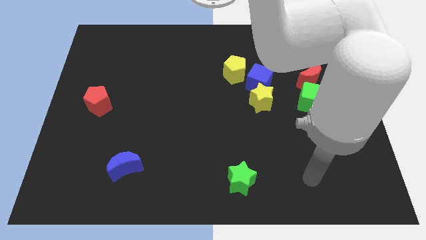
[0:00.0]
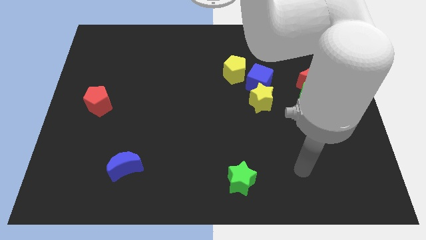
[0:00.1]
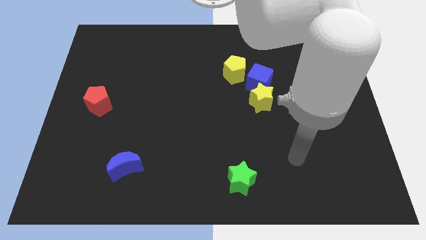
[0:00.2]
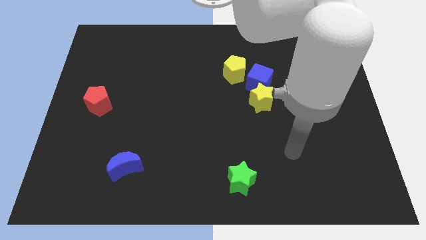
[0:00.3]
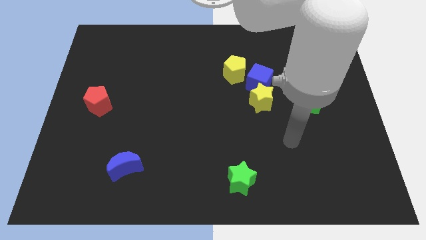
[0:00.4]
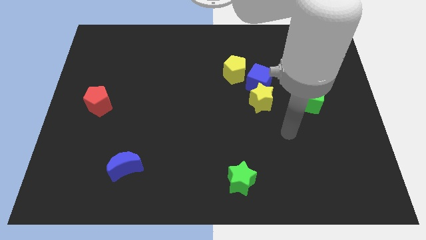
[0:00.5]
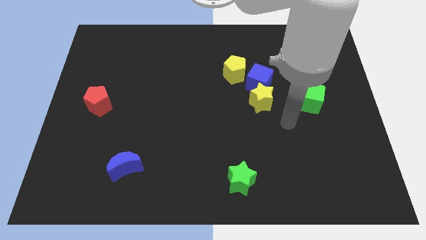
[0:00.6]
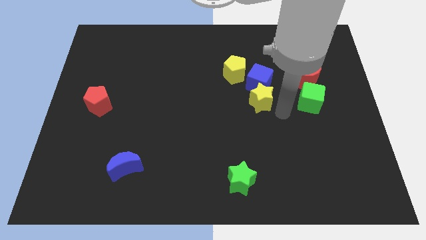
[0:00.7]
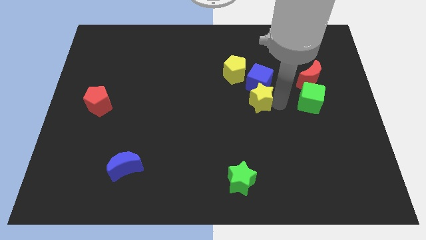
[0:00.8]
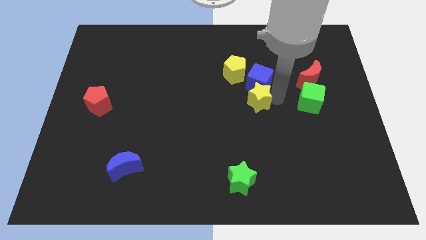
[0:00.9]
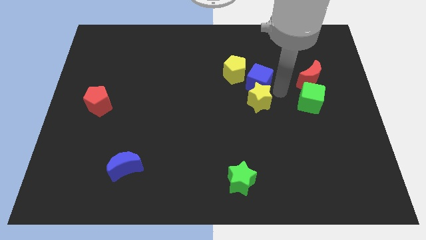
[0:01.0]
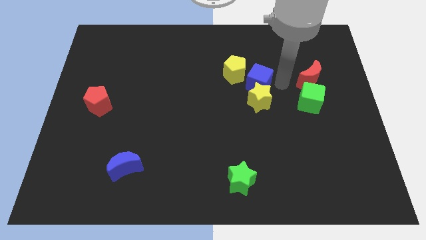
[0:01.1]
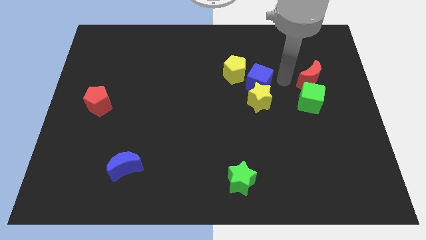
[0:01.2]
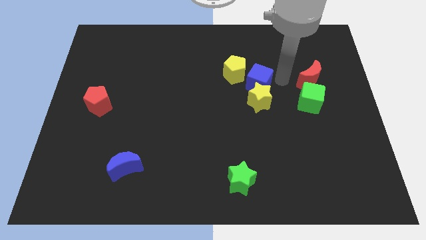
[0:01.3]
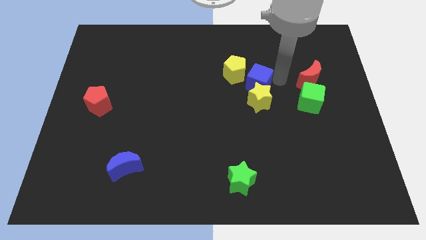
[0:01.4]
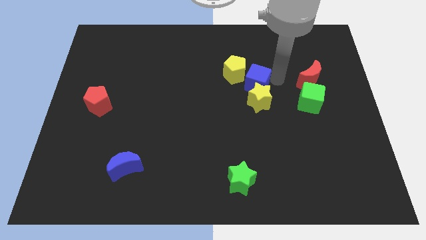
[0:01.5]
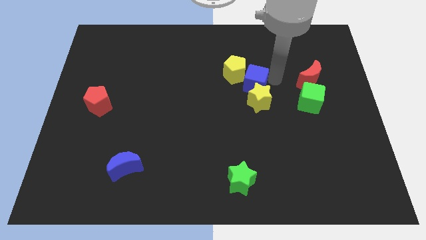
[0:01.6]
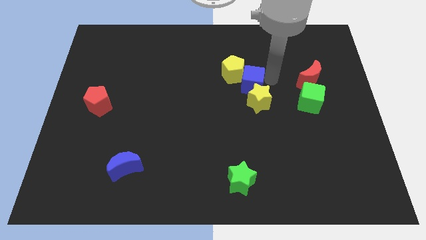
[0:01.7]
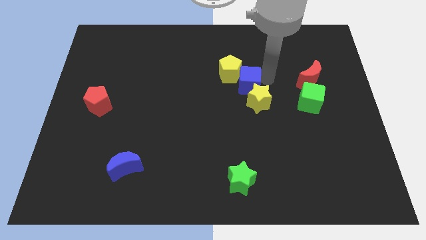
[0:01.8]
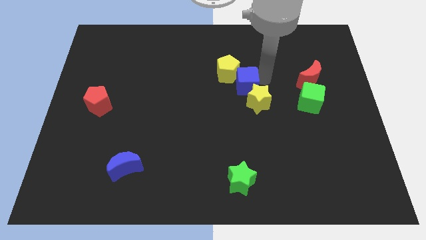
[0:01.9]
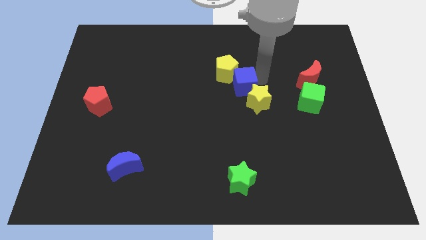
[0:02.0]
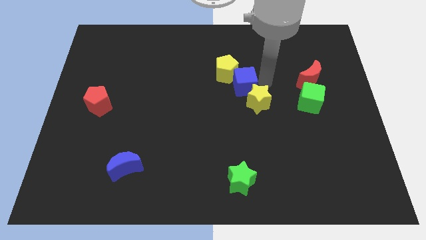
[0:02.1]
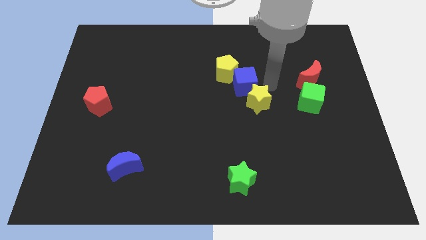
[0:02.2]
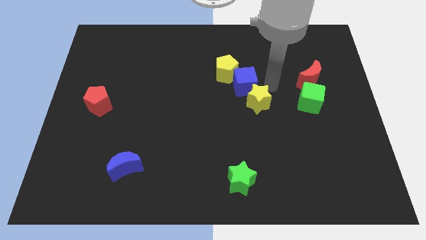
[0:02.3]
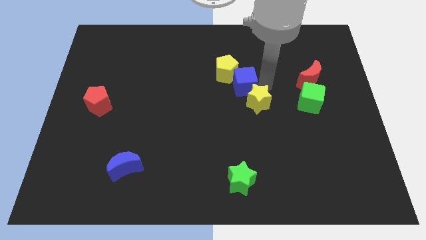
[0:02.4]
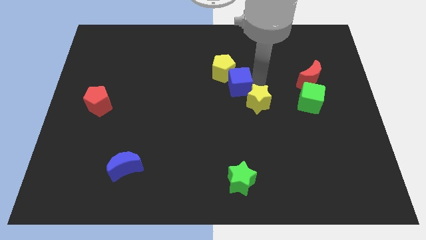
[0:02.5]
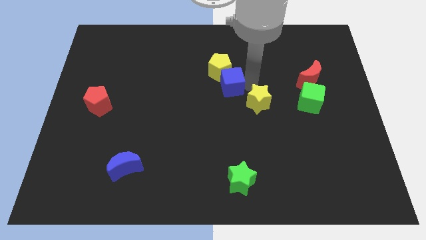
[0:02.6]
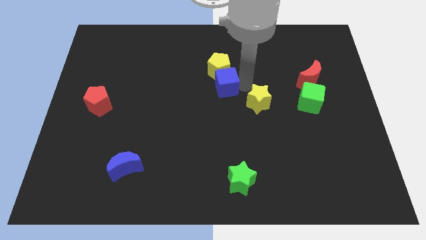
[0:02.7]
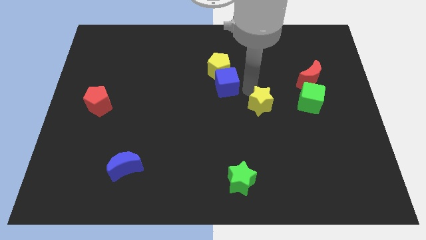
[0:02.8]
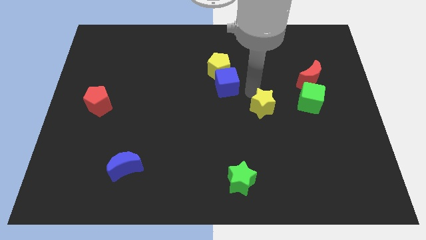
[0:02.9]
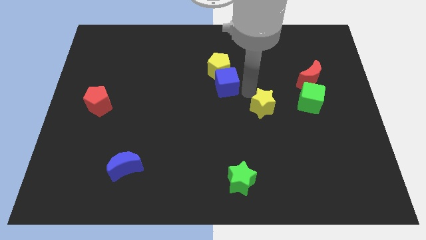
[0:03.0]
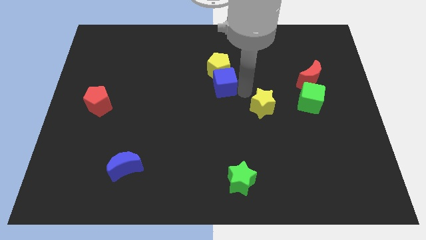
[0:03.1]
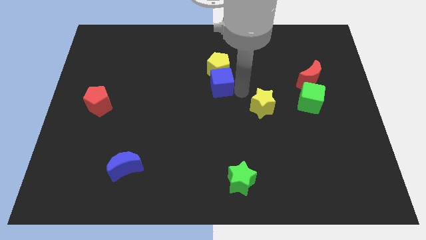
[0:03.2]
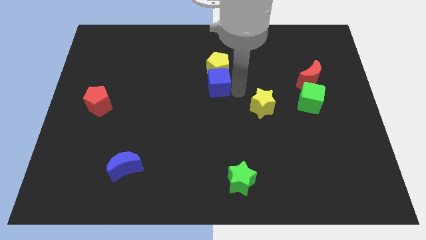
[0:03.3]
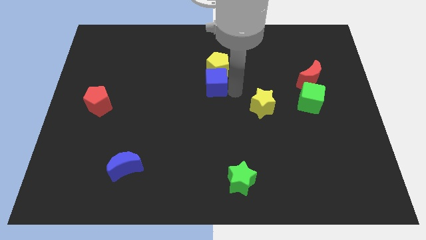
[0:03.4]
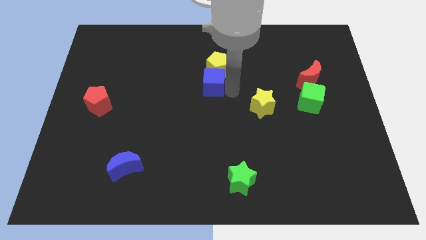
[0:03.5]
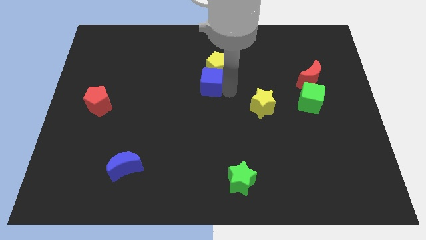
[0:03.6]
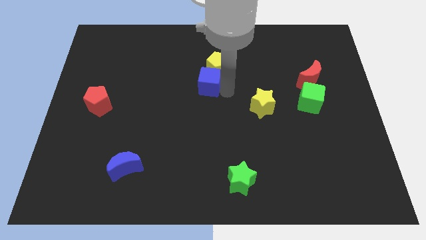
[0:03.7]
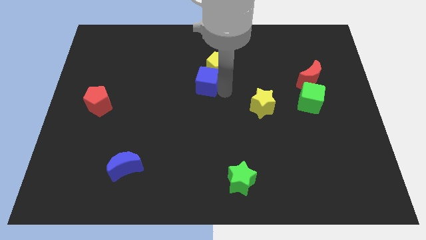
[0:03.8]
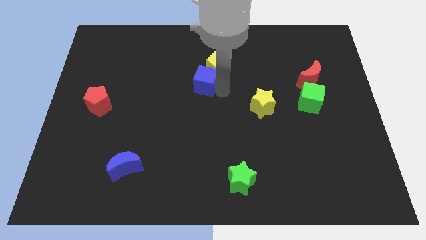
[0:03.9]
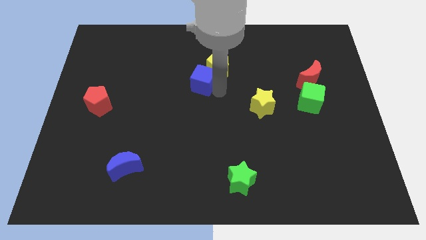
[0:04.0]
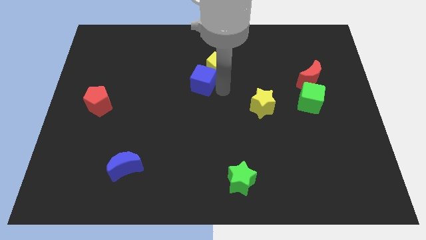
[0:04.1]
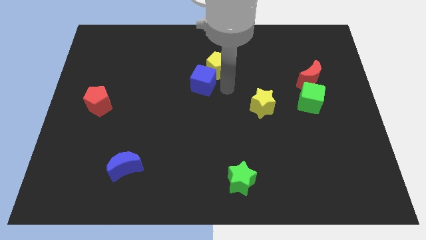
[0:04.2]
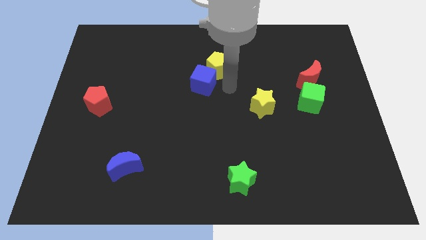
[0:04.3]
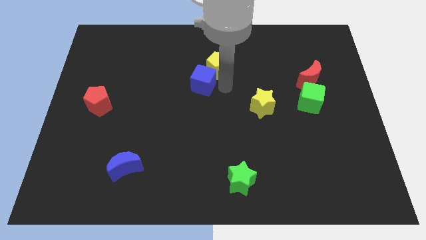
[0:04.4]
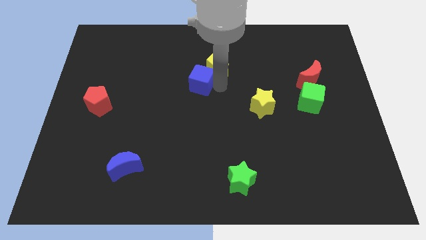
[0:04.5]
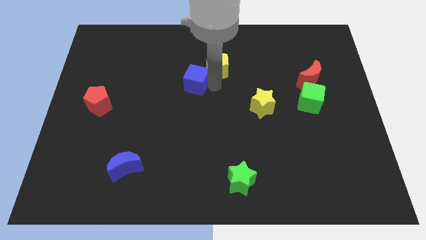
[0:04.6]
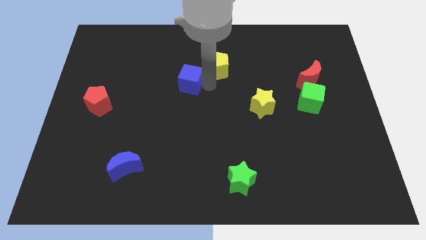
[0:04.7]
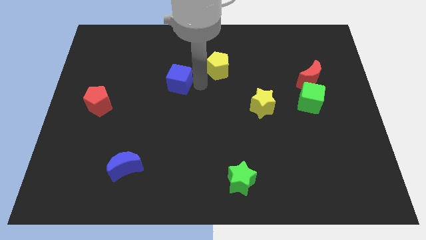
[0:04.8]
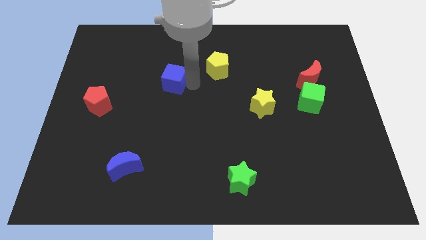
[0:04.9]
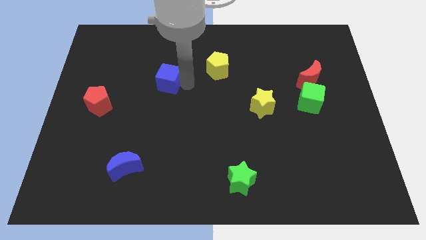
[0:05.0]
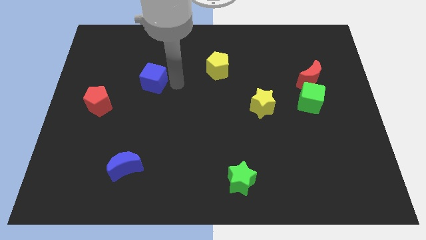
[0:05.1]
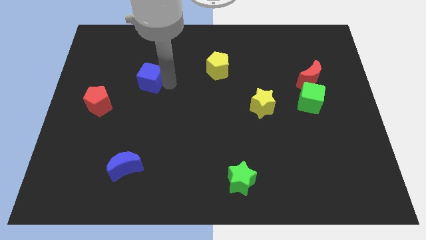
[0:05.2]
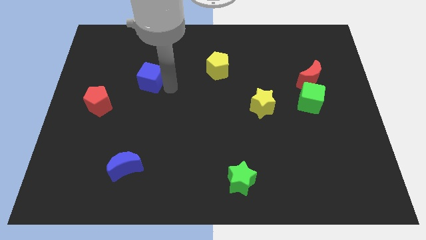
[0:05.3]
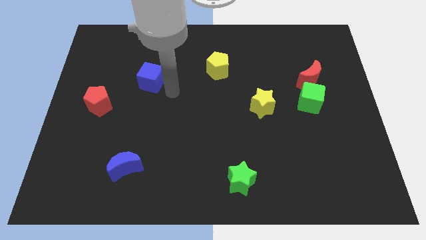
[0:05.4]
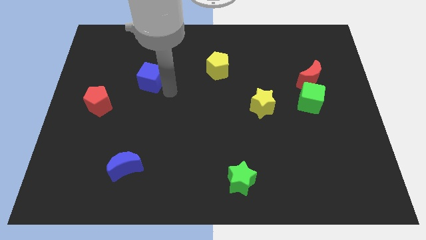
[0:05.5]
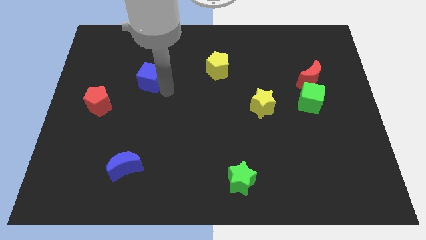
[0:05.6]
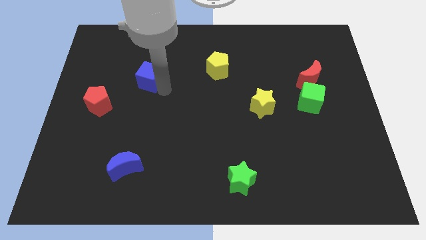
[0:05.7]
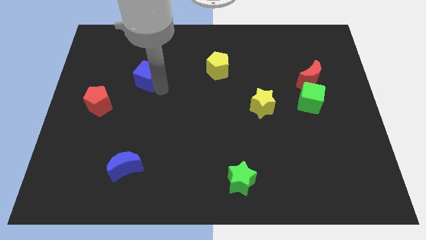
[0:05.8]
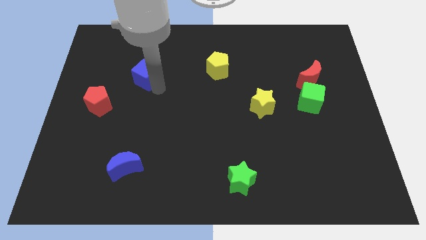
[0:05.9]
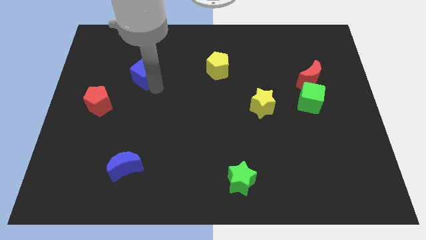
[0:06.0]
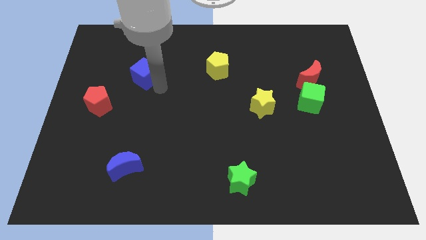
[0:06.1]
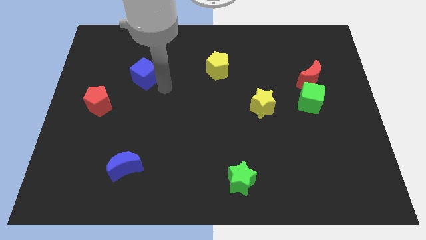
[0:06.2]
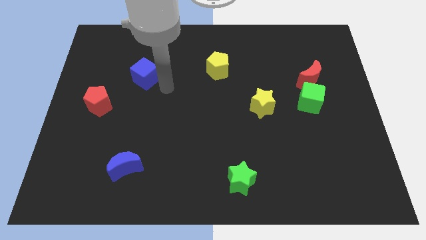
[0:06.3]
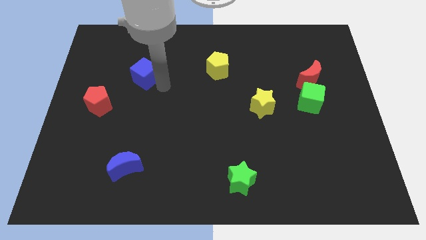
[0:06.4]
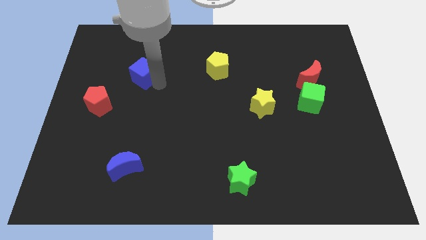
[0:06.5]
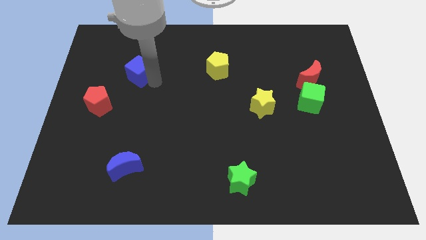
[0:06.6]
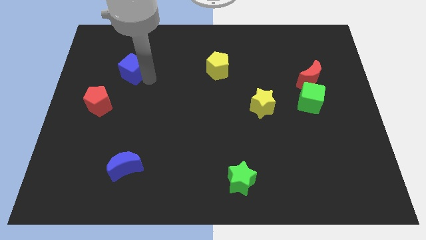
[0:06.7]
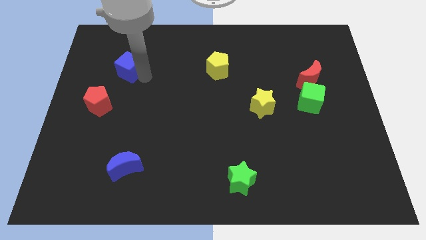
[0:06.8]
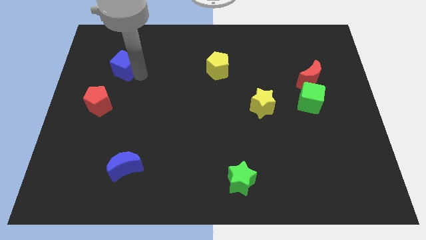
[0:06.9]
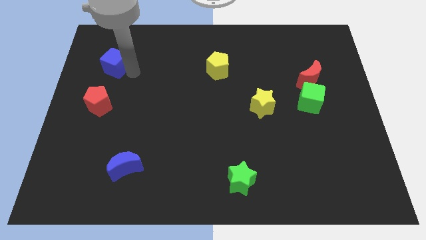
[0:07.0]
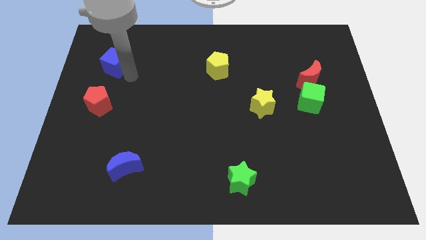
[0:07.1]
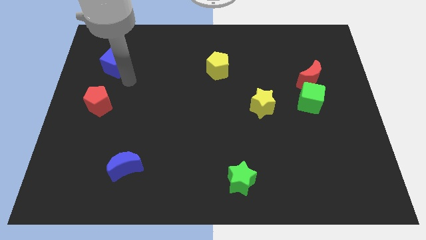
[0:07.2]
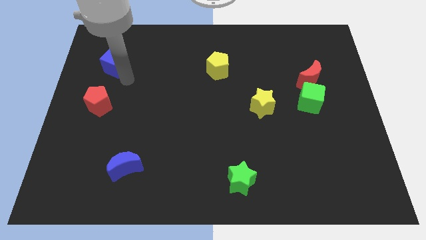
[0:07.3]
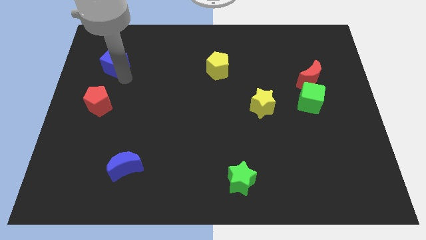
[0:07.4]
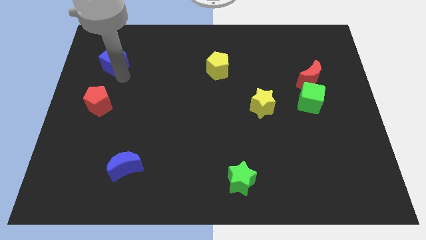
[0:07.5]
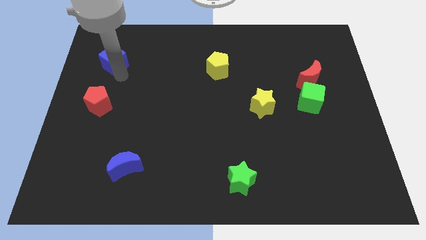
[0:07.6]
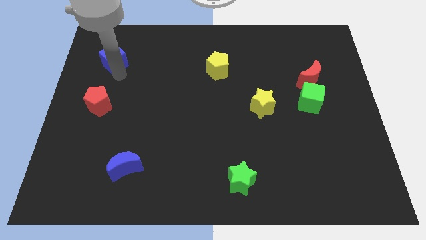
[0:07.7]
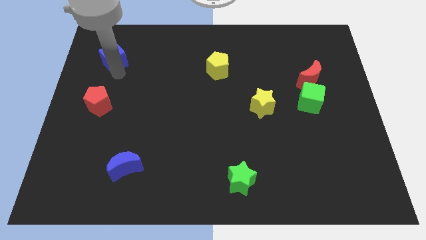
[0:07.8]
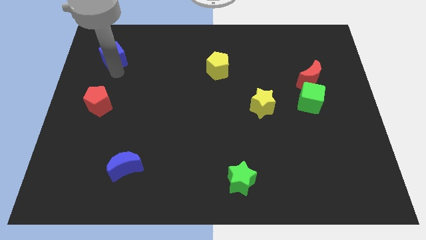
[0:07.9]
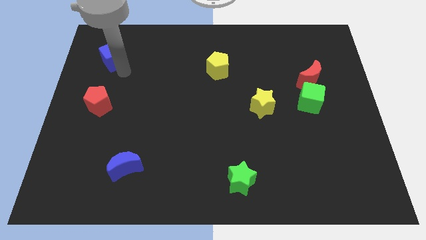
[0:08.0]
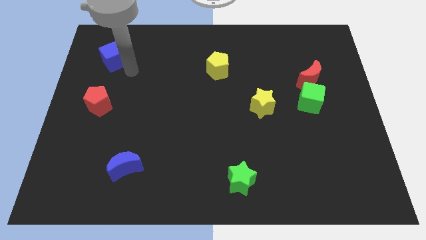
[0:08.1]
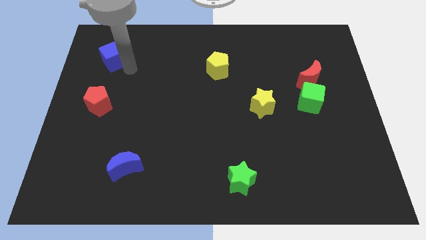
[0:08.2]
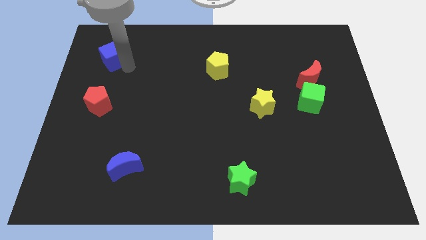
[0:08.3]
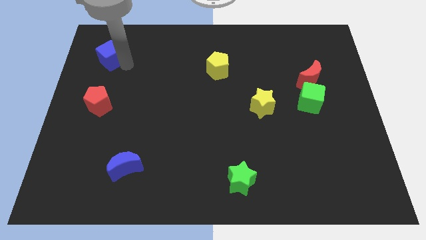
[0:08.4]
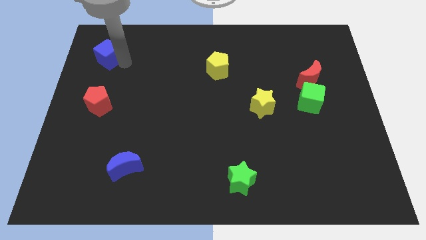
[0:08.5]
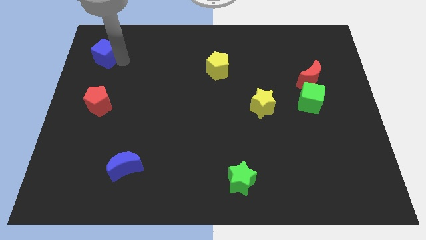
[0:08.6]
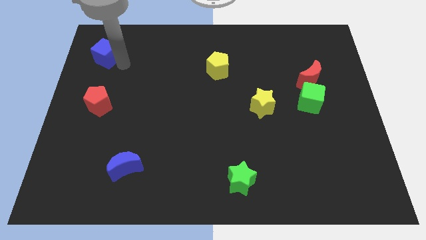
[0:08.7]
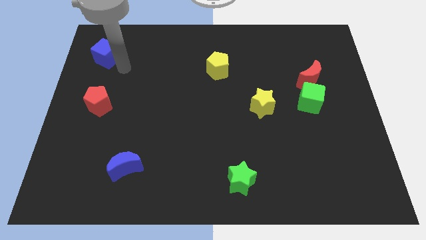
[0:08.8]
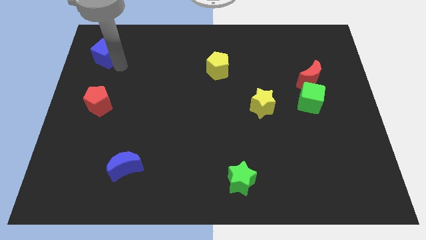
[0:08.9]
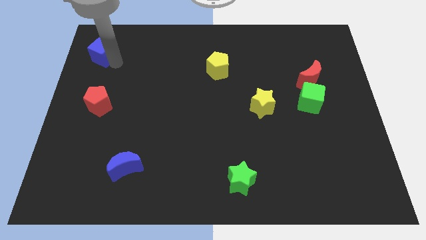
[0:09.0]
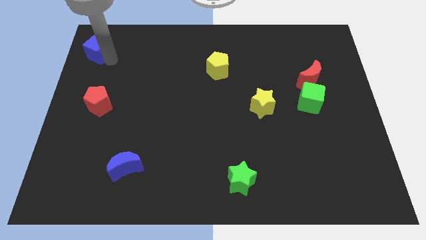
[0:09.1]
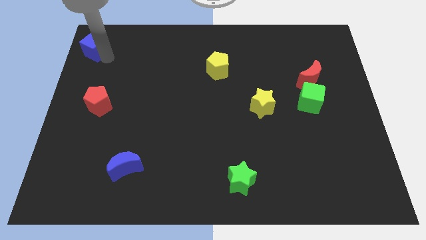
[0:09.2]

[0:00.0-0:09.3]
push the blue cube to the top left
